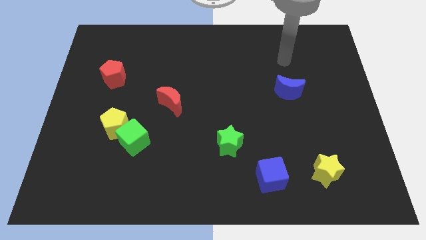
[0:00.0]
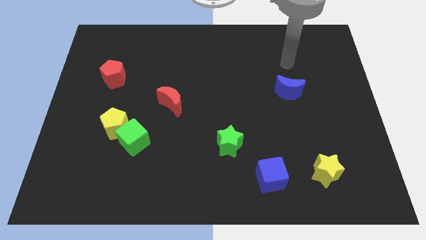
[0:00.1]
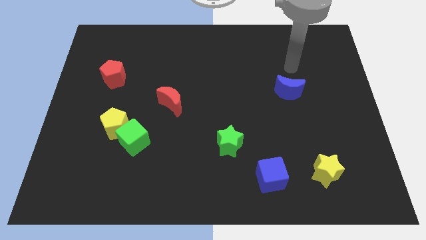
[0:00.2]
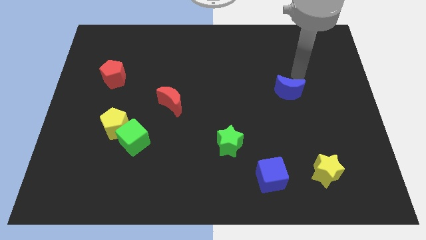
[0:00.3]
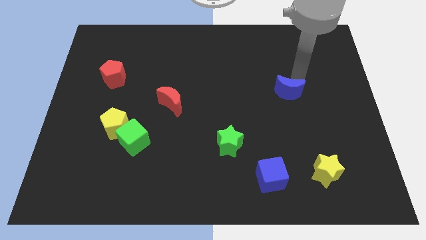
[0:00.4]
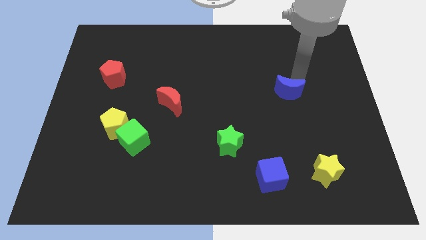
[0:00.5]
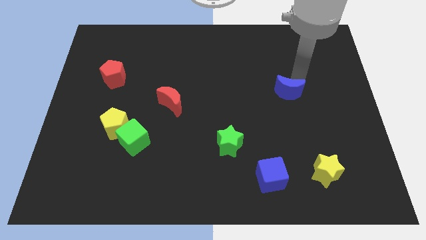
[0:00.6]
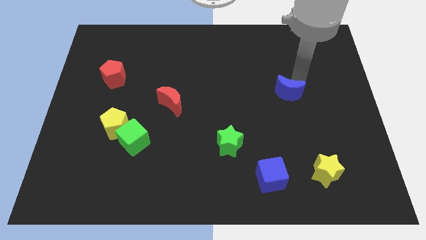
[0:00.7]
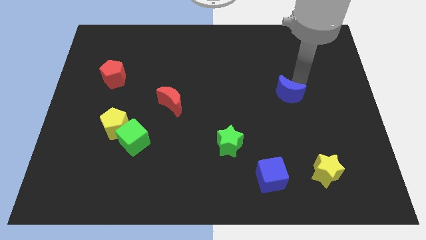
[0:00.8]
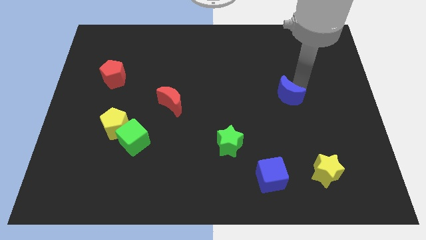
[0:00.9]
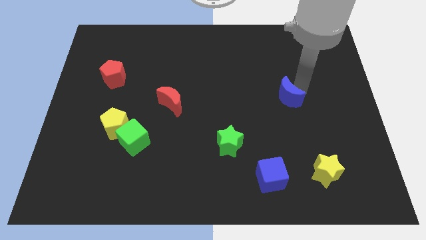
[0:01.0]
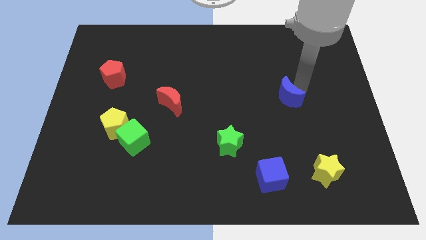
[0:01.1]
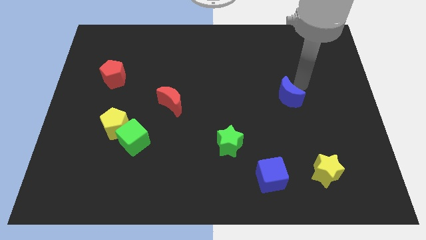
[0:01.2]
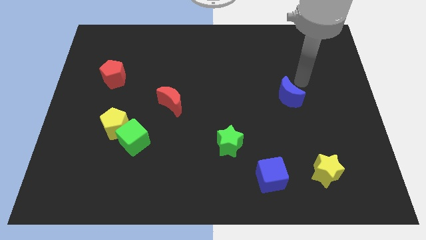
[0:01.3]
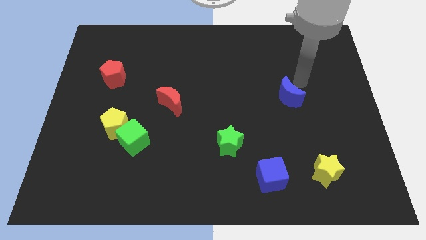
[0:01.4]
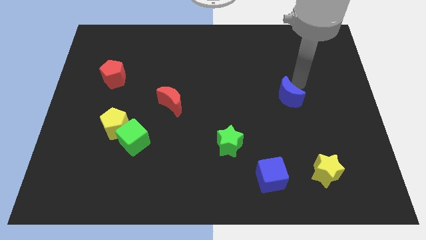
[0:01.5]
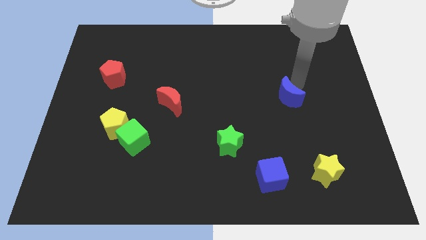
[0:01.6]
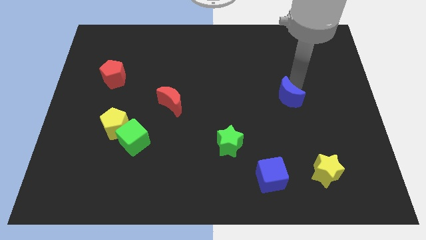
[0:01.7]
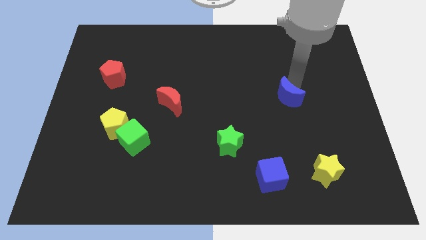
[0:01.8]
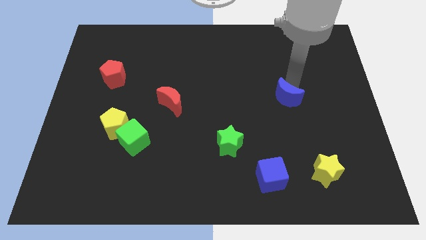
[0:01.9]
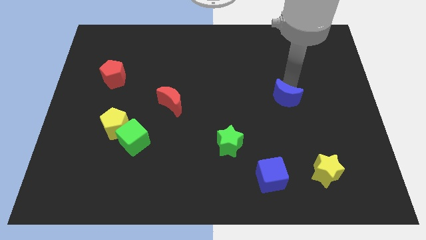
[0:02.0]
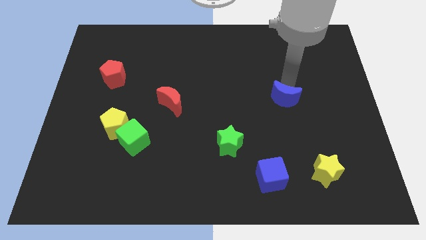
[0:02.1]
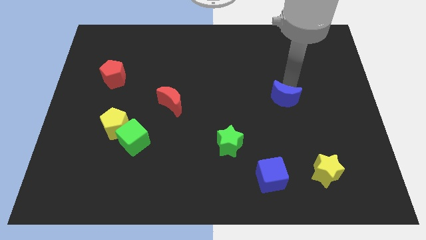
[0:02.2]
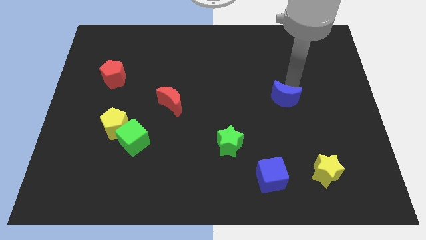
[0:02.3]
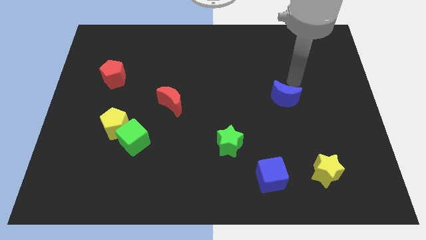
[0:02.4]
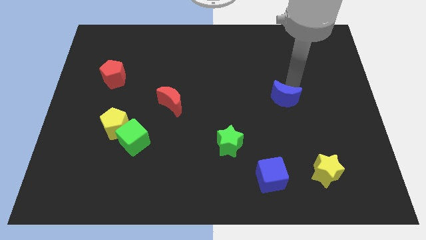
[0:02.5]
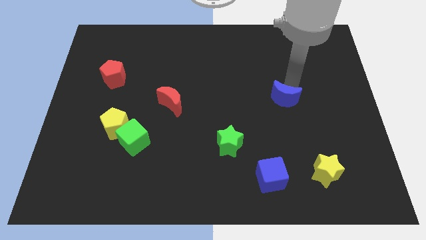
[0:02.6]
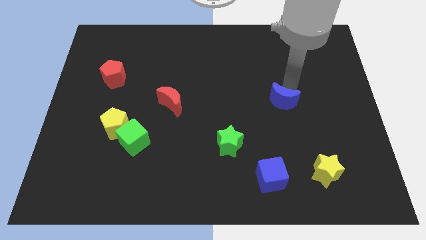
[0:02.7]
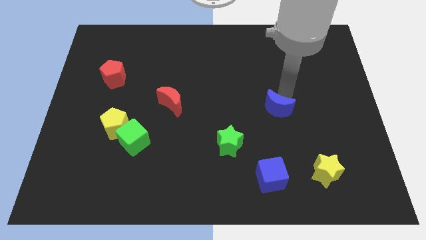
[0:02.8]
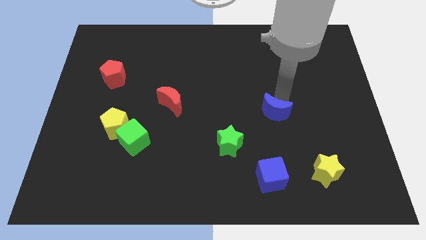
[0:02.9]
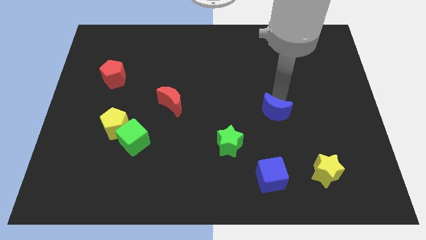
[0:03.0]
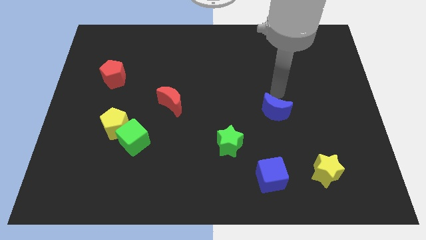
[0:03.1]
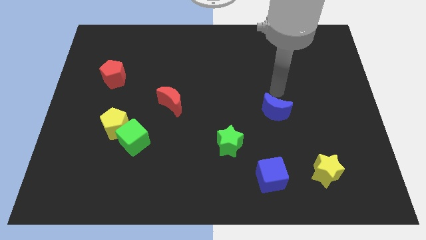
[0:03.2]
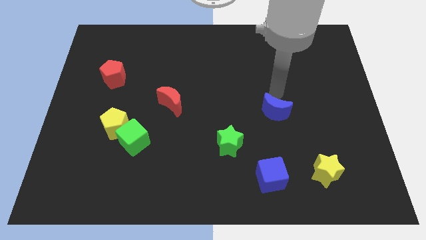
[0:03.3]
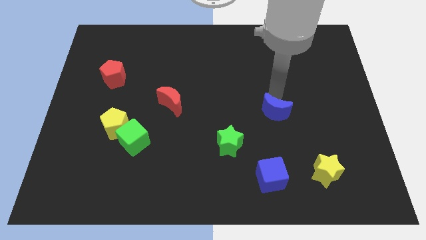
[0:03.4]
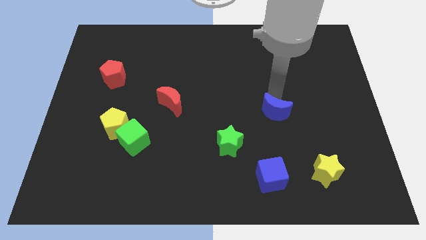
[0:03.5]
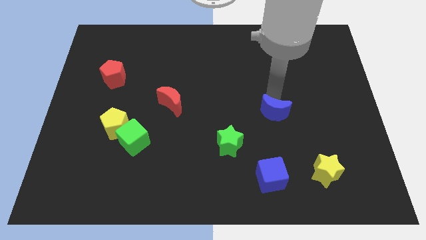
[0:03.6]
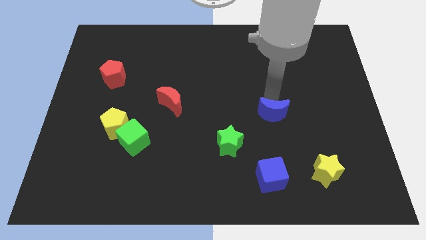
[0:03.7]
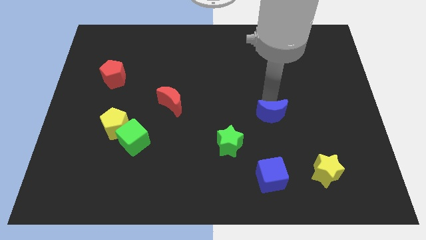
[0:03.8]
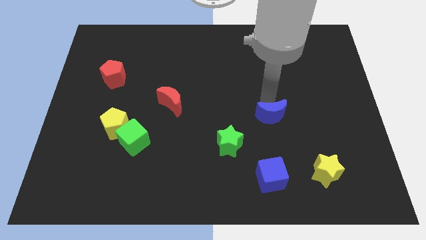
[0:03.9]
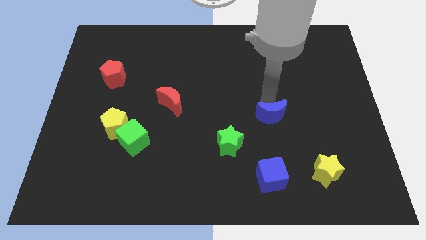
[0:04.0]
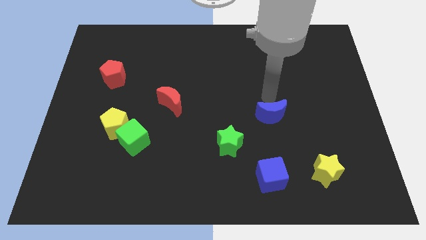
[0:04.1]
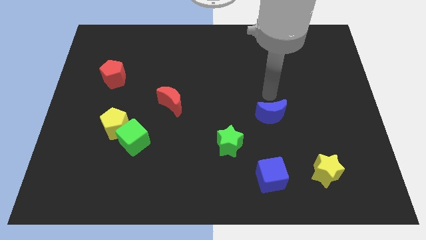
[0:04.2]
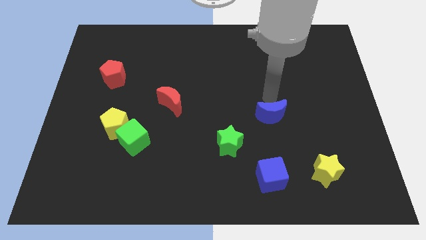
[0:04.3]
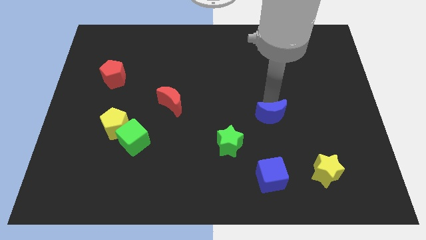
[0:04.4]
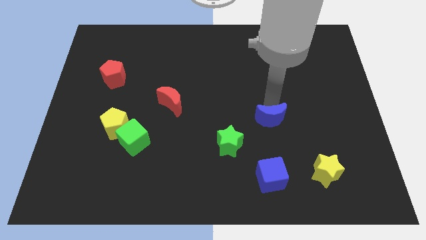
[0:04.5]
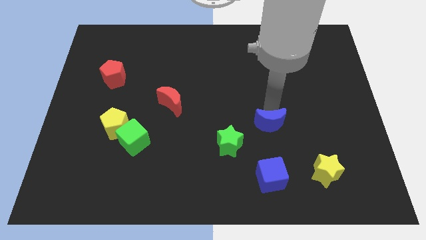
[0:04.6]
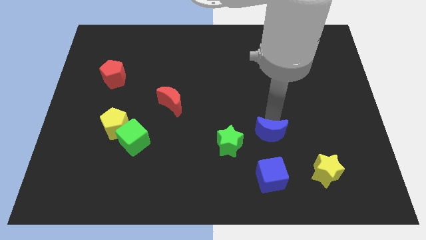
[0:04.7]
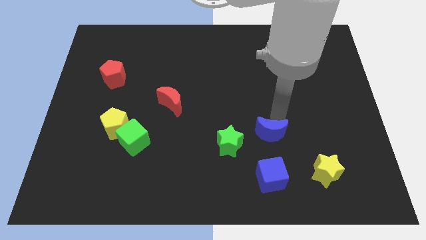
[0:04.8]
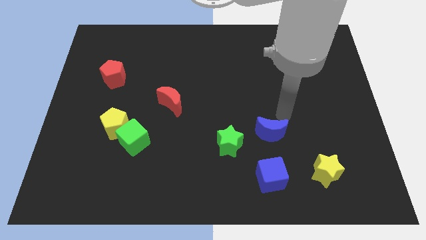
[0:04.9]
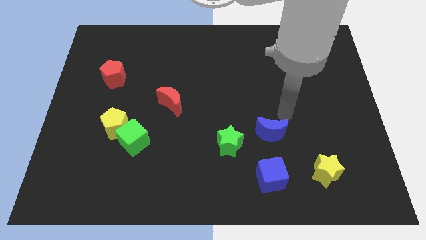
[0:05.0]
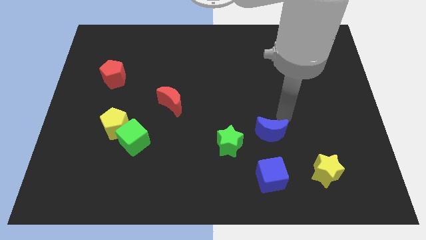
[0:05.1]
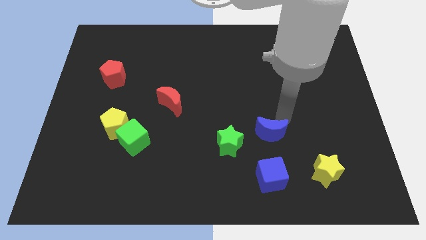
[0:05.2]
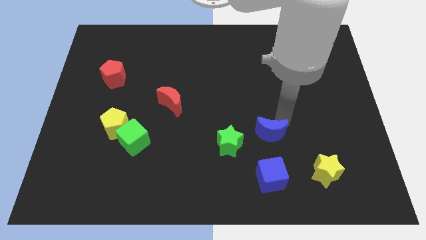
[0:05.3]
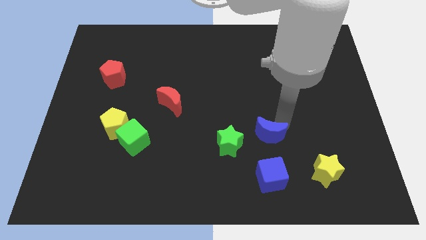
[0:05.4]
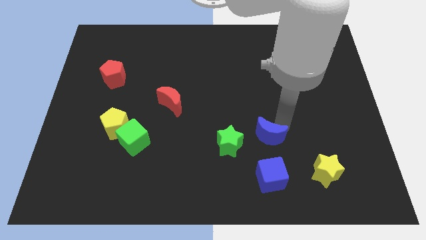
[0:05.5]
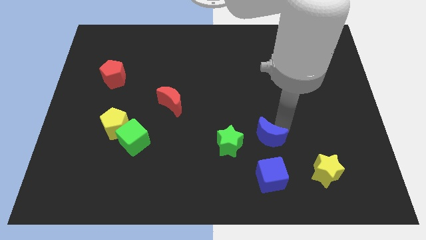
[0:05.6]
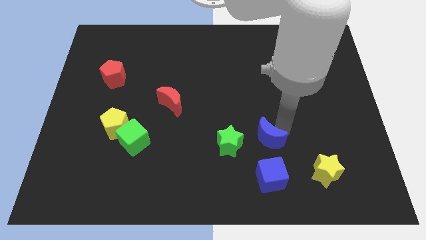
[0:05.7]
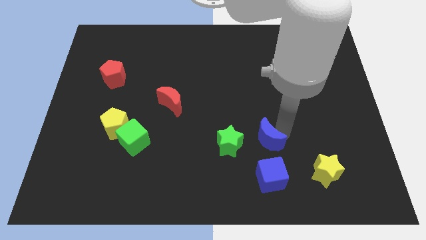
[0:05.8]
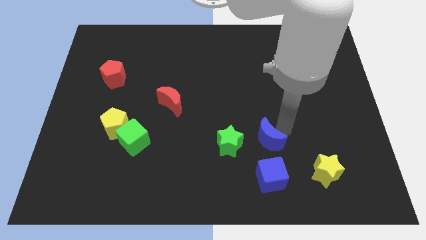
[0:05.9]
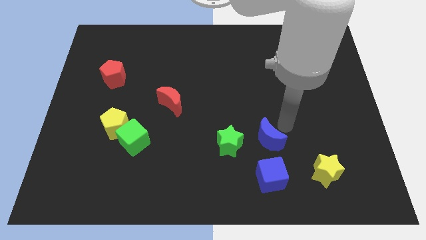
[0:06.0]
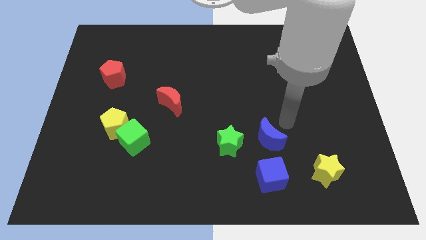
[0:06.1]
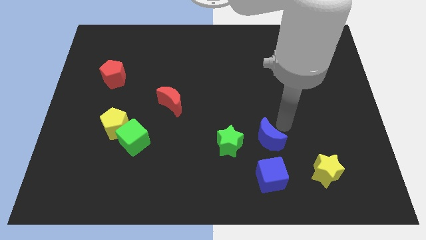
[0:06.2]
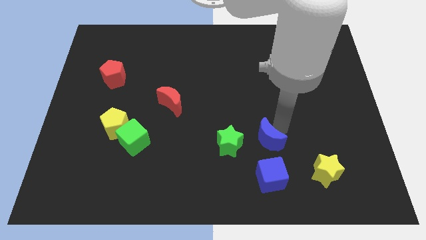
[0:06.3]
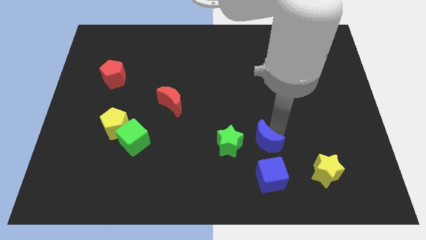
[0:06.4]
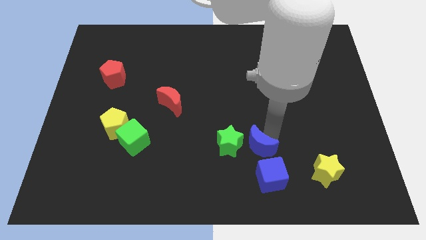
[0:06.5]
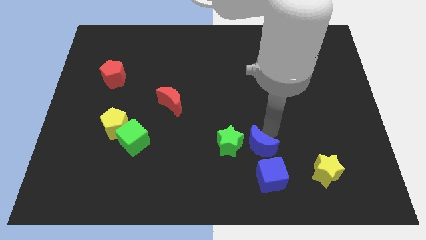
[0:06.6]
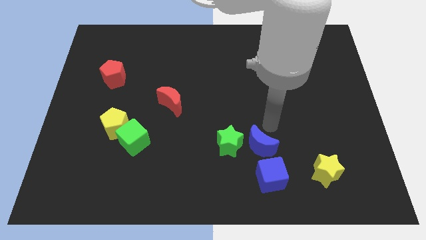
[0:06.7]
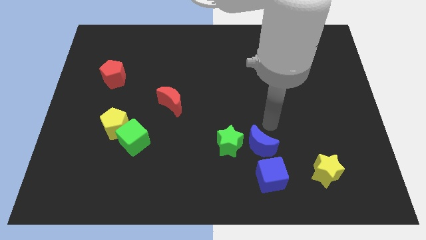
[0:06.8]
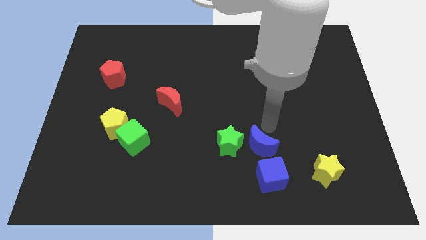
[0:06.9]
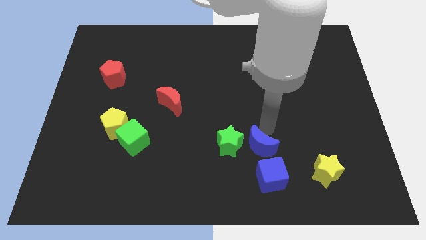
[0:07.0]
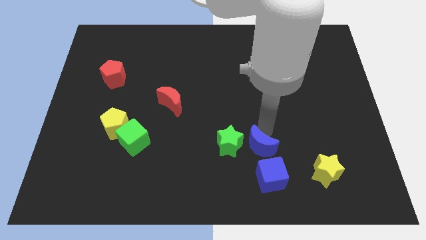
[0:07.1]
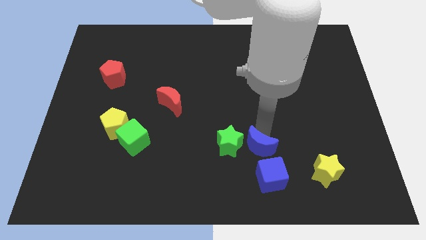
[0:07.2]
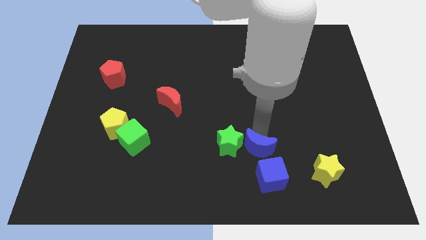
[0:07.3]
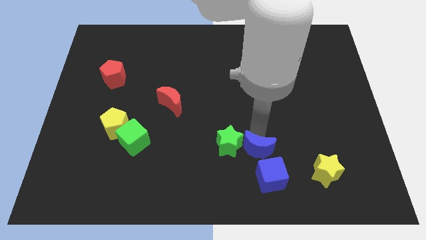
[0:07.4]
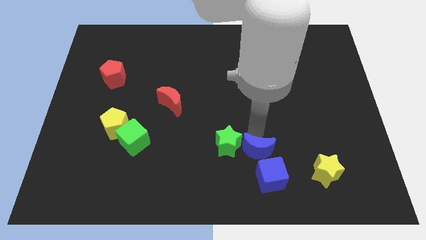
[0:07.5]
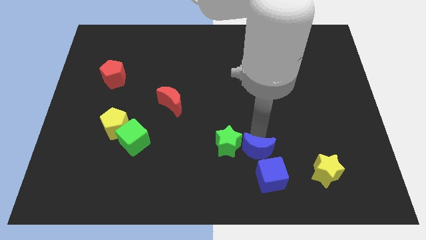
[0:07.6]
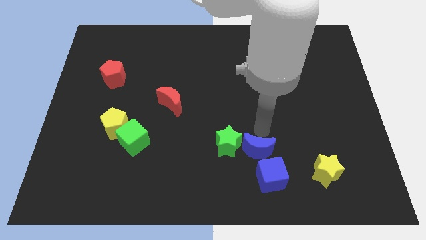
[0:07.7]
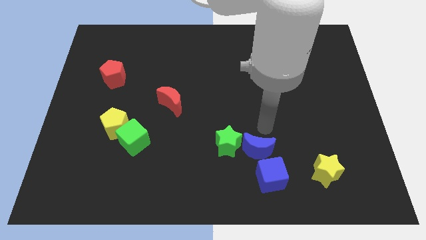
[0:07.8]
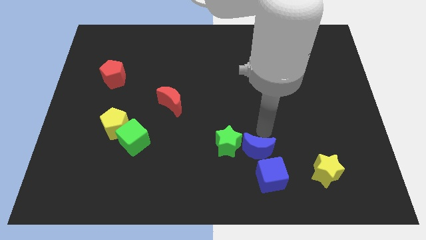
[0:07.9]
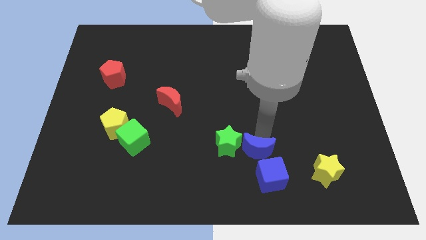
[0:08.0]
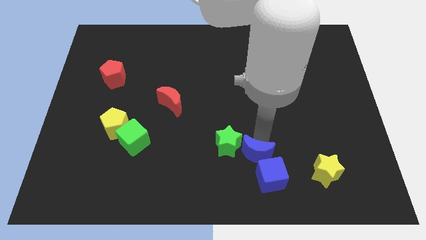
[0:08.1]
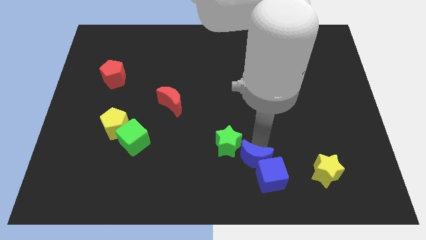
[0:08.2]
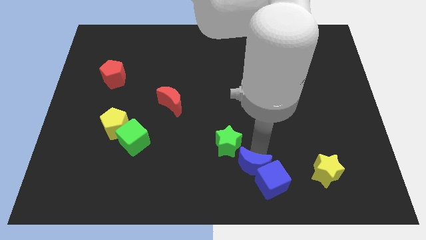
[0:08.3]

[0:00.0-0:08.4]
slide the blue moon to the bottom side
